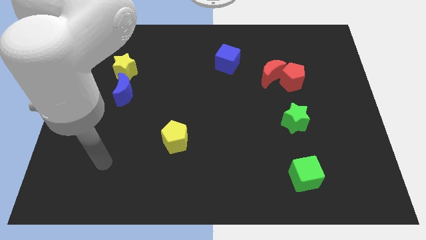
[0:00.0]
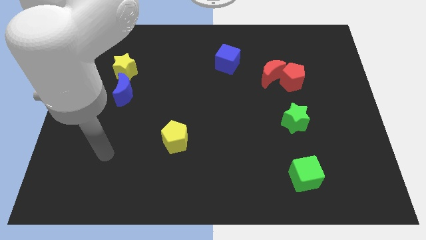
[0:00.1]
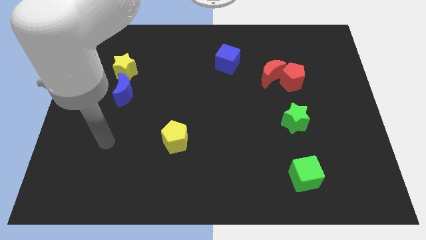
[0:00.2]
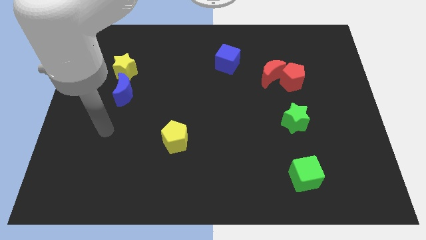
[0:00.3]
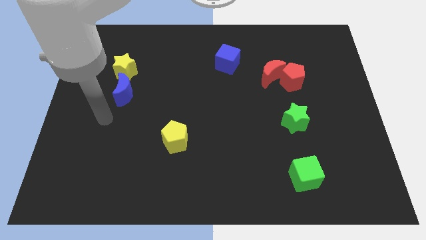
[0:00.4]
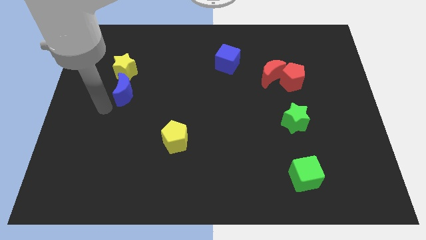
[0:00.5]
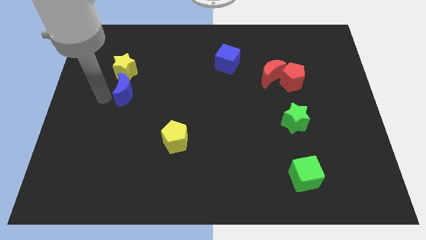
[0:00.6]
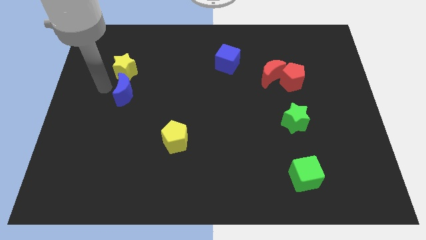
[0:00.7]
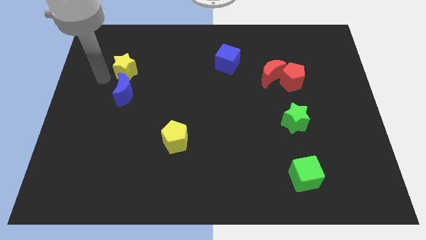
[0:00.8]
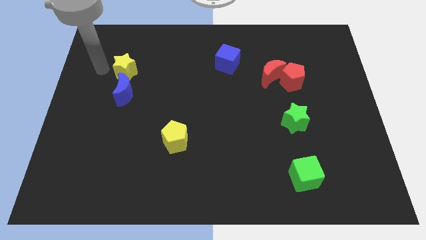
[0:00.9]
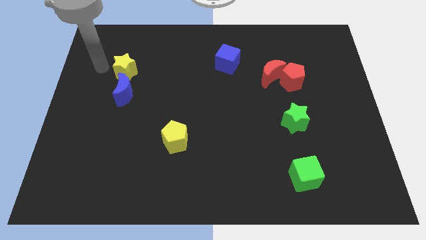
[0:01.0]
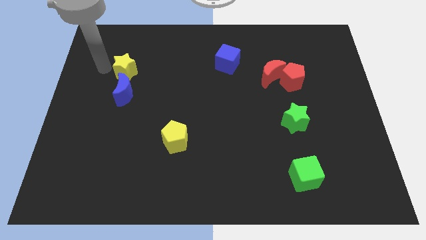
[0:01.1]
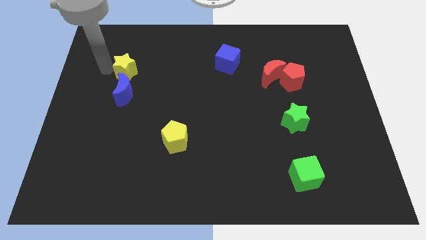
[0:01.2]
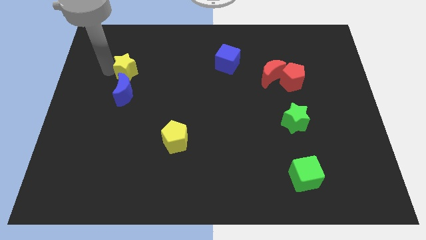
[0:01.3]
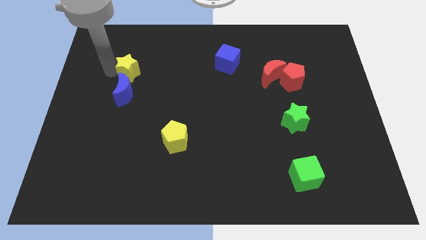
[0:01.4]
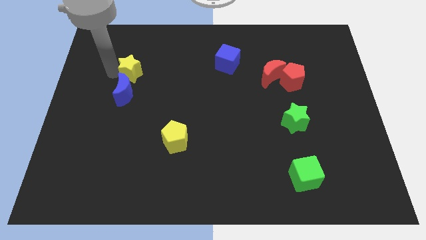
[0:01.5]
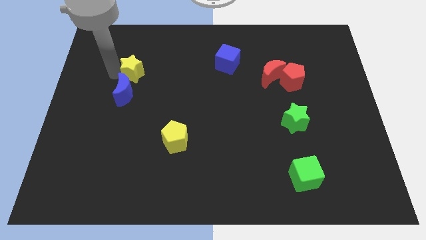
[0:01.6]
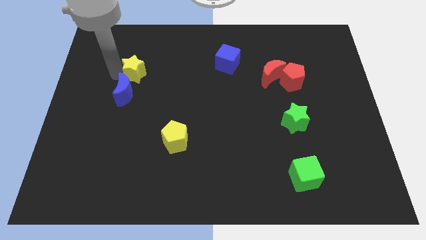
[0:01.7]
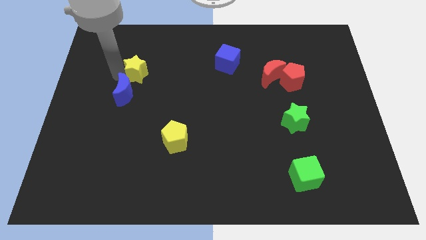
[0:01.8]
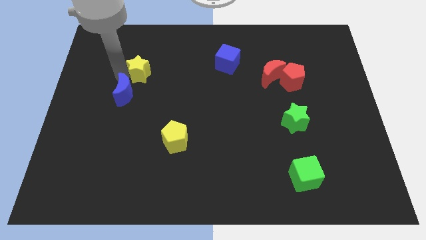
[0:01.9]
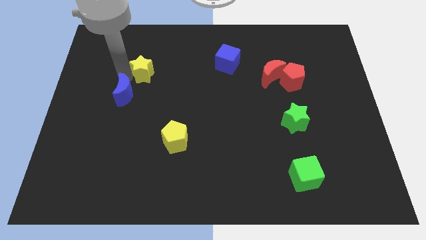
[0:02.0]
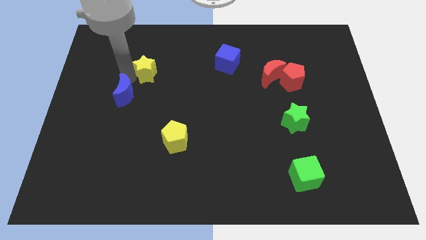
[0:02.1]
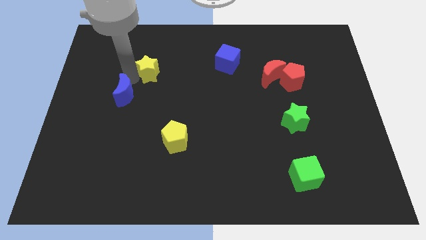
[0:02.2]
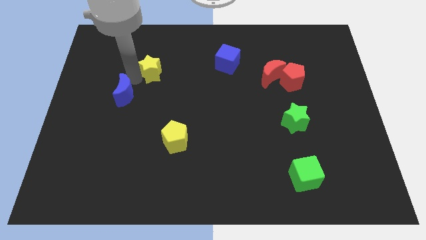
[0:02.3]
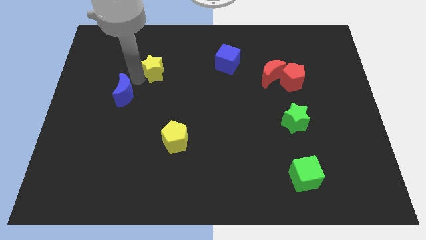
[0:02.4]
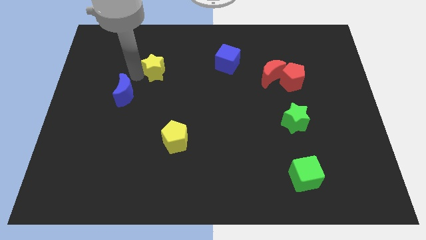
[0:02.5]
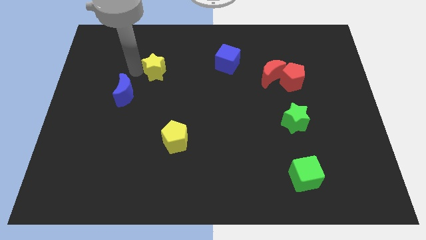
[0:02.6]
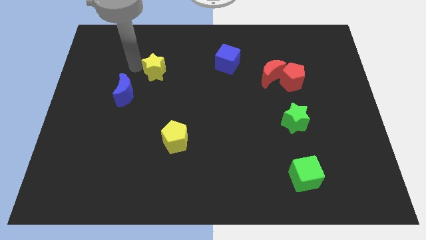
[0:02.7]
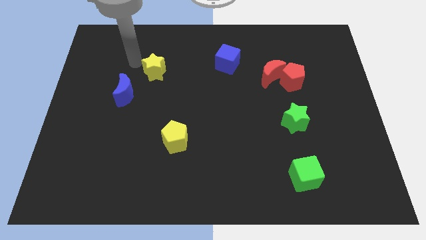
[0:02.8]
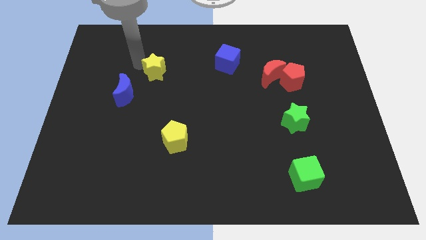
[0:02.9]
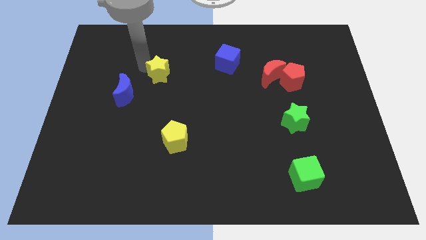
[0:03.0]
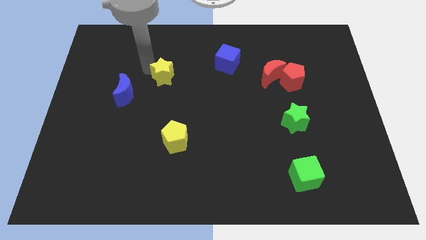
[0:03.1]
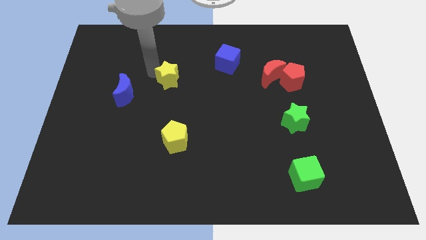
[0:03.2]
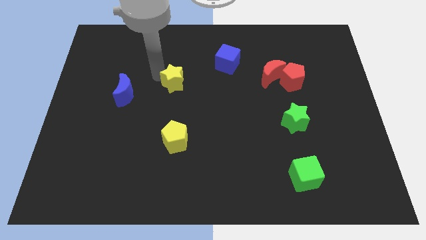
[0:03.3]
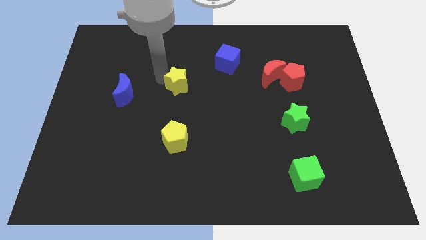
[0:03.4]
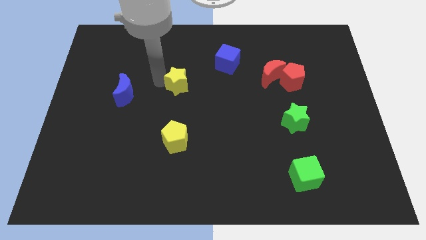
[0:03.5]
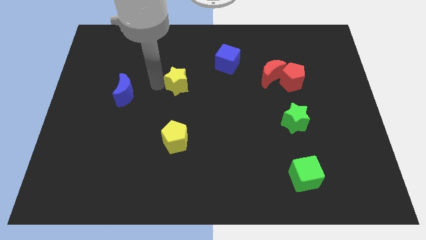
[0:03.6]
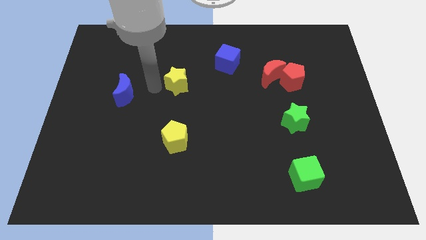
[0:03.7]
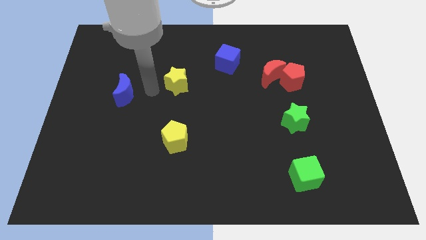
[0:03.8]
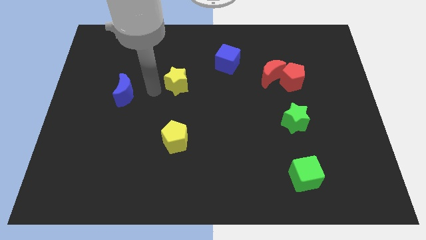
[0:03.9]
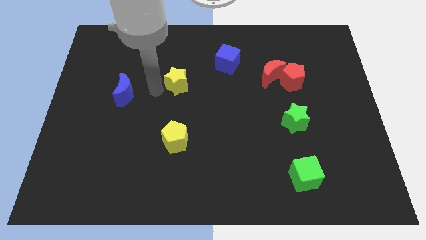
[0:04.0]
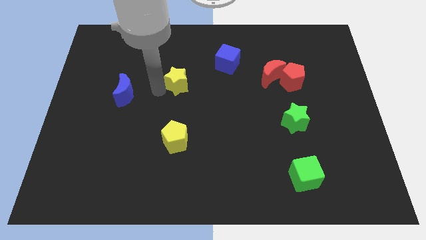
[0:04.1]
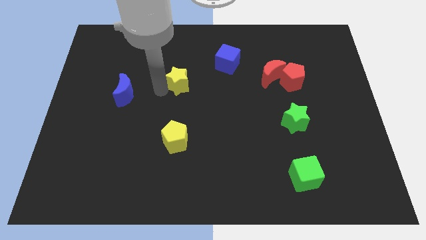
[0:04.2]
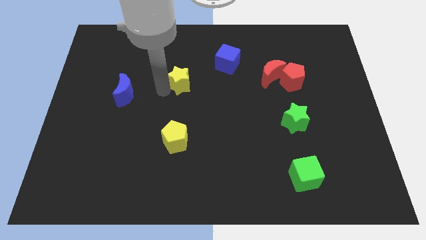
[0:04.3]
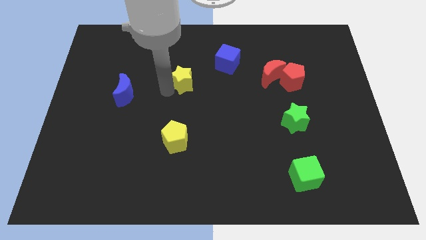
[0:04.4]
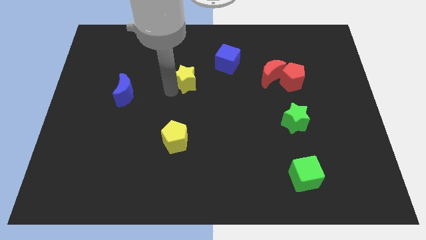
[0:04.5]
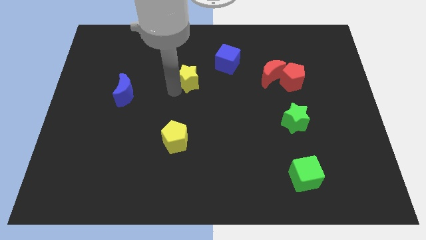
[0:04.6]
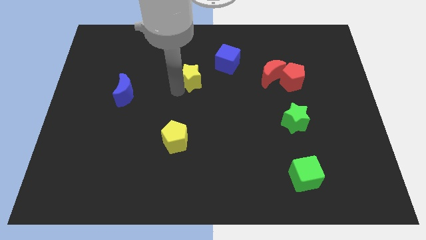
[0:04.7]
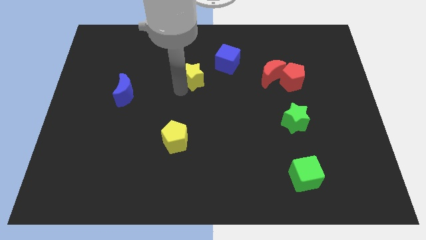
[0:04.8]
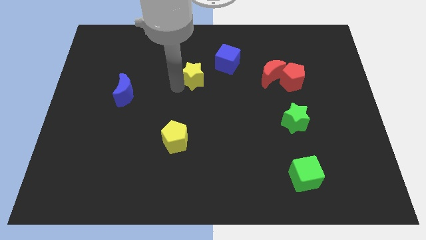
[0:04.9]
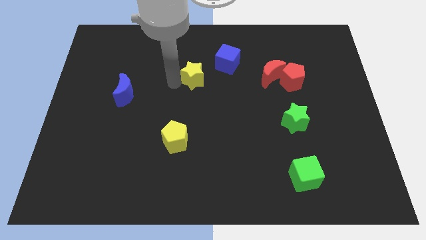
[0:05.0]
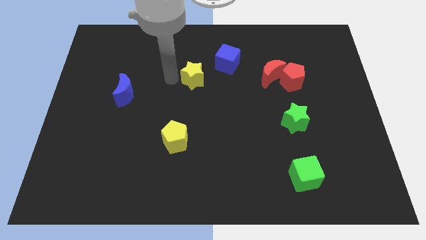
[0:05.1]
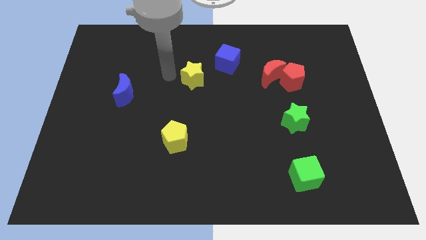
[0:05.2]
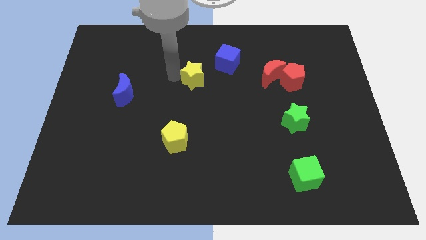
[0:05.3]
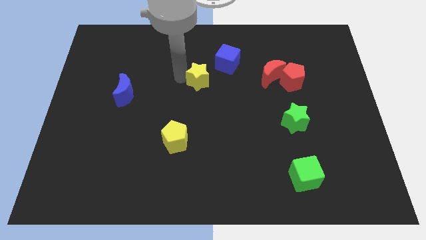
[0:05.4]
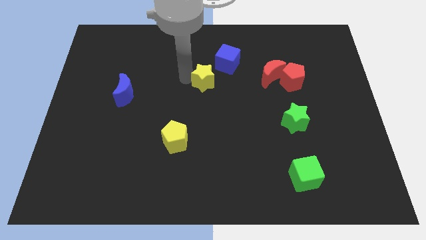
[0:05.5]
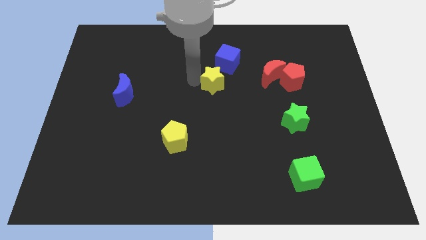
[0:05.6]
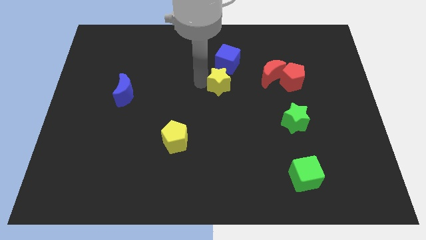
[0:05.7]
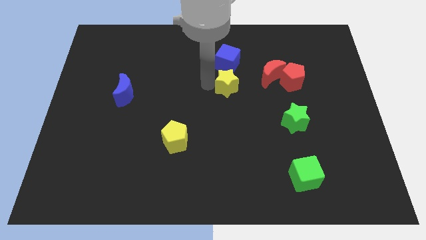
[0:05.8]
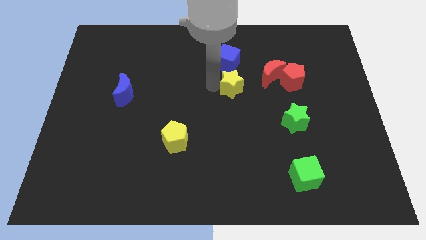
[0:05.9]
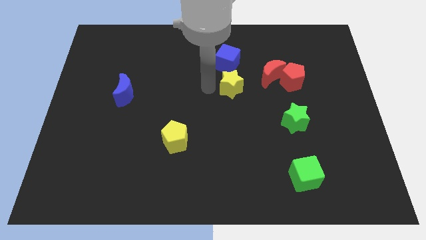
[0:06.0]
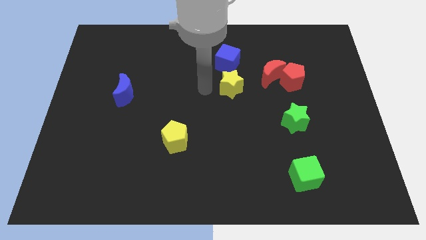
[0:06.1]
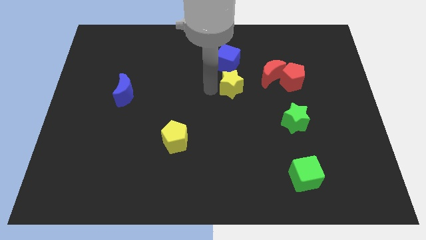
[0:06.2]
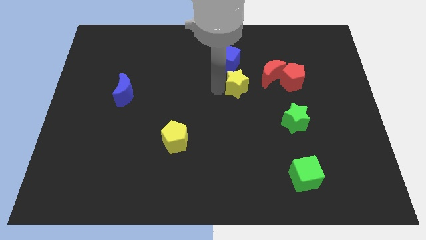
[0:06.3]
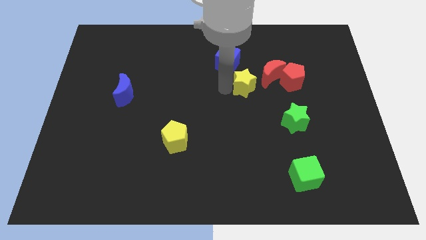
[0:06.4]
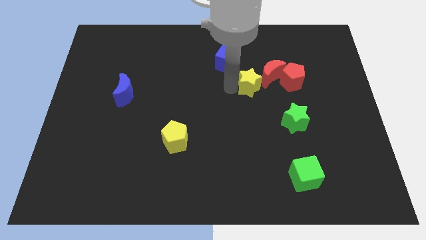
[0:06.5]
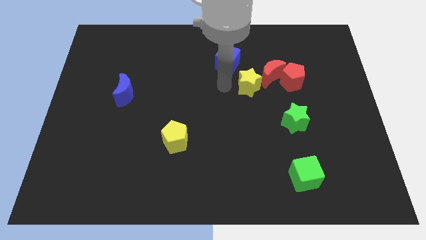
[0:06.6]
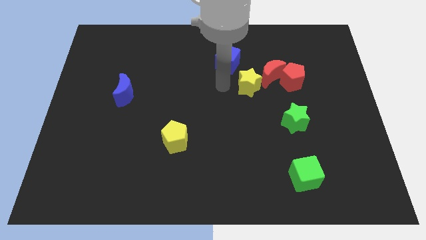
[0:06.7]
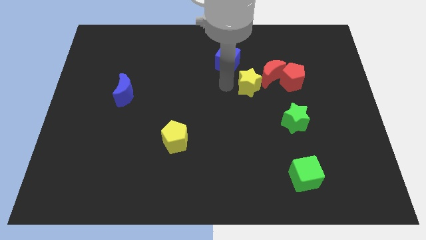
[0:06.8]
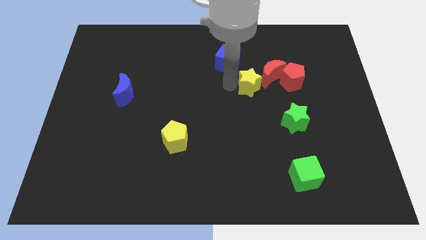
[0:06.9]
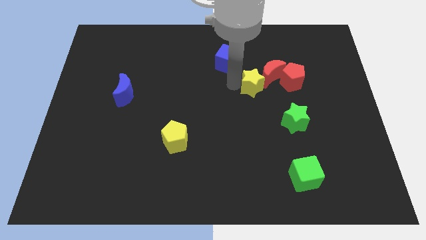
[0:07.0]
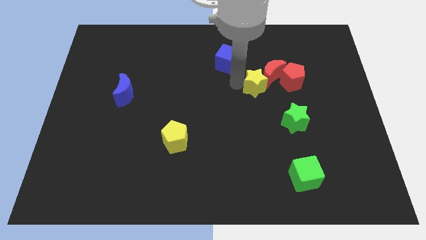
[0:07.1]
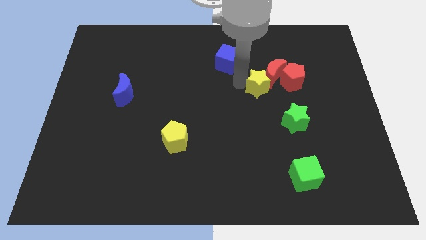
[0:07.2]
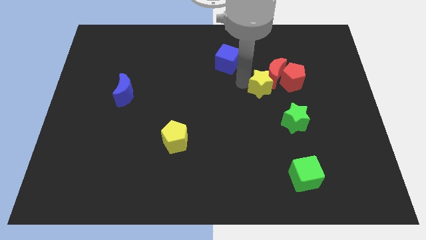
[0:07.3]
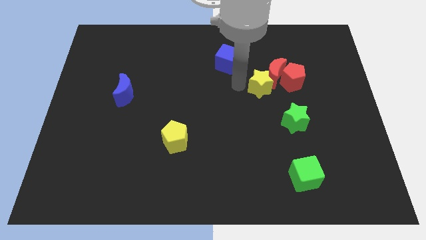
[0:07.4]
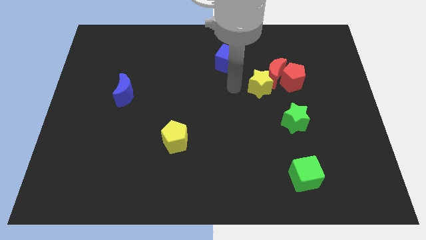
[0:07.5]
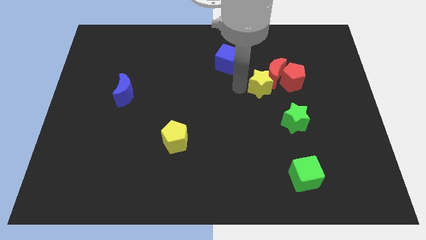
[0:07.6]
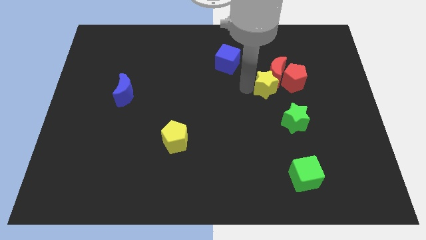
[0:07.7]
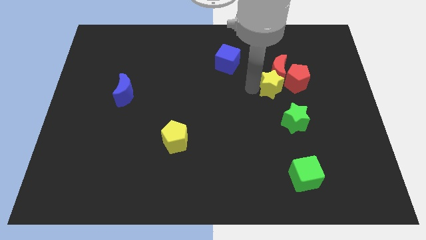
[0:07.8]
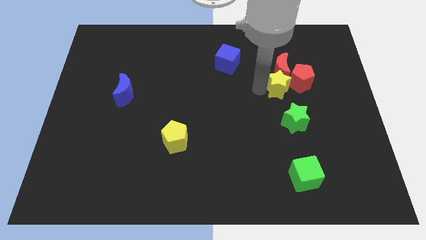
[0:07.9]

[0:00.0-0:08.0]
slide the yellow star close to the red pentagon
